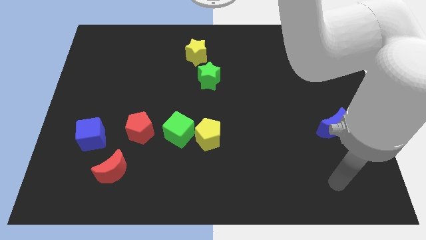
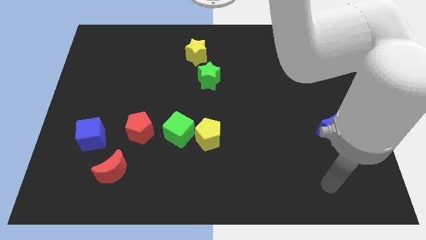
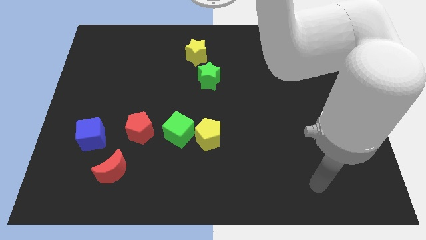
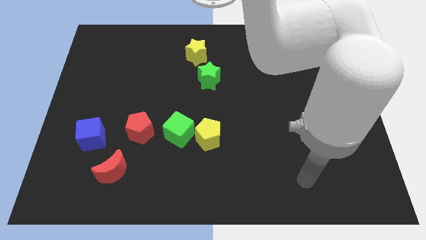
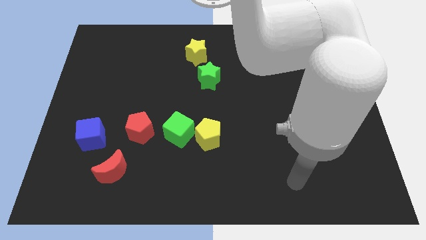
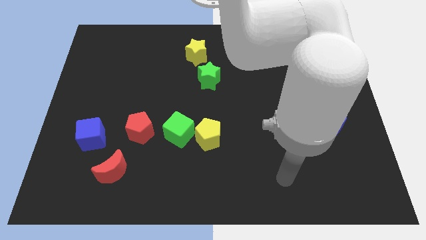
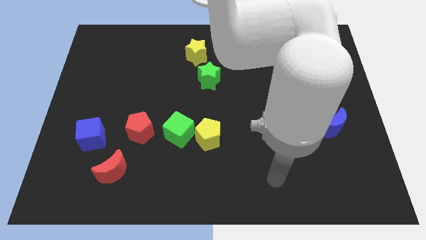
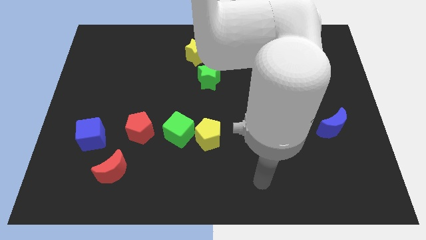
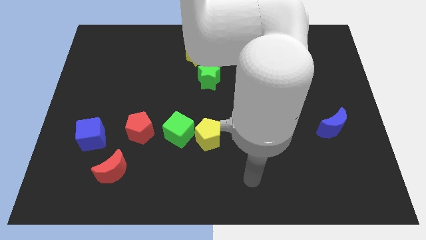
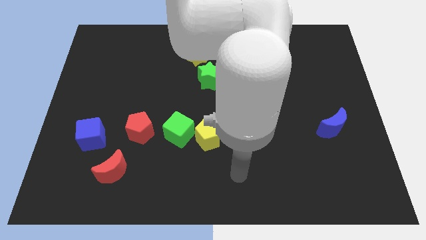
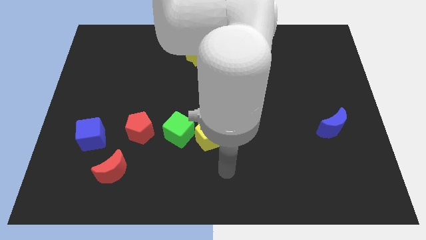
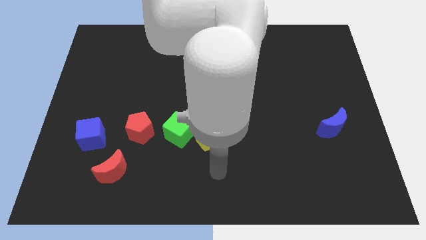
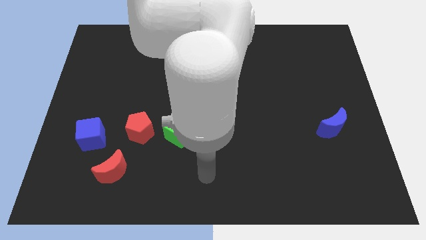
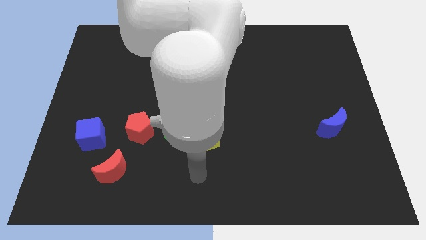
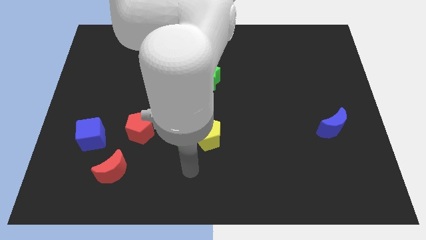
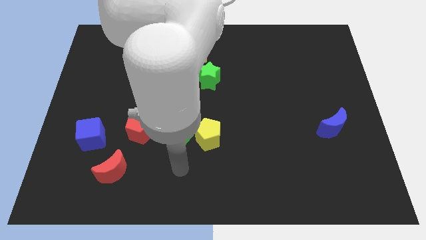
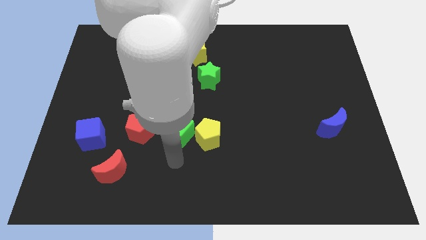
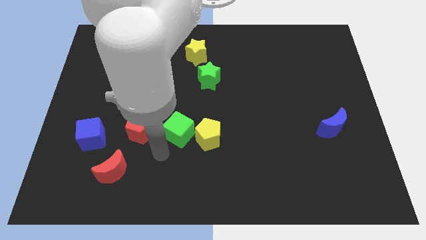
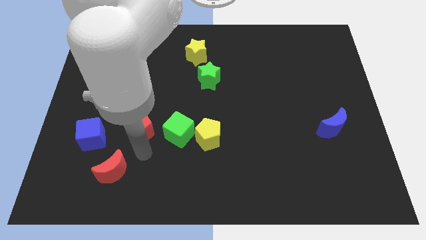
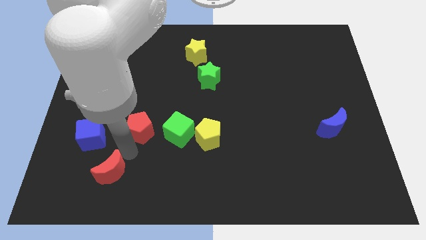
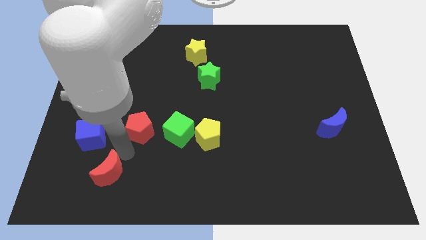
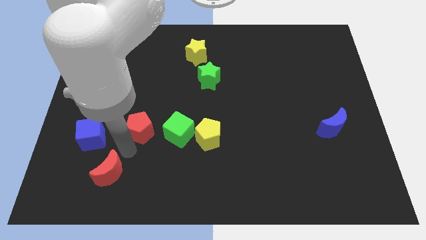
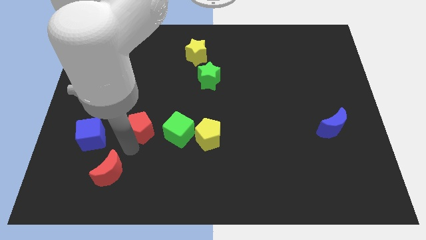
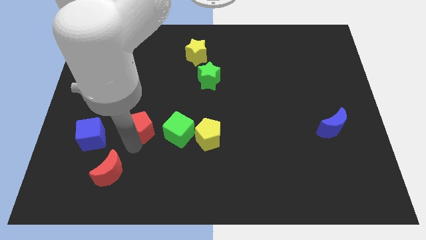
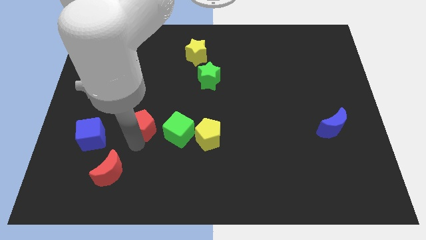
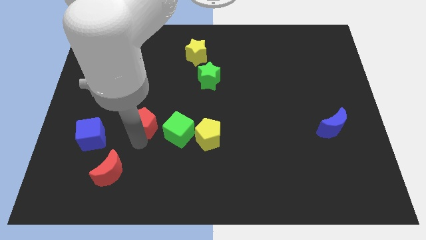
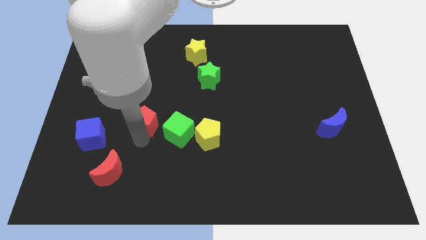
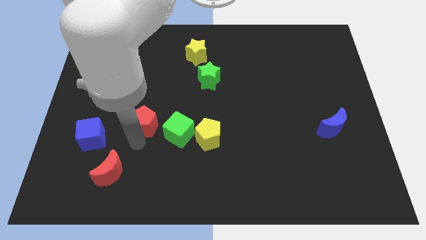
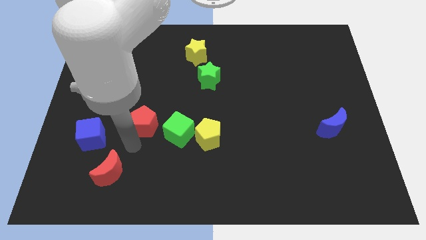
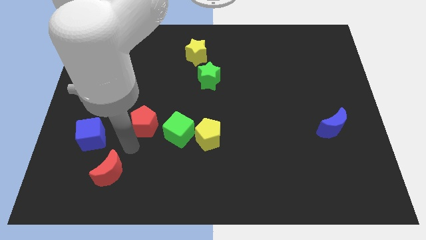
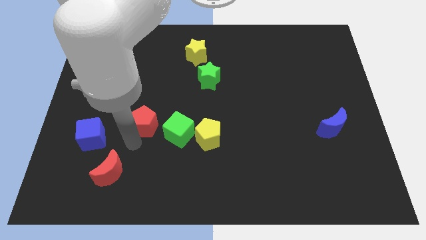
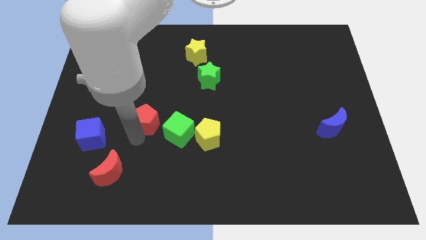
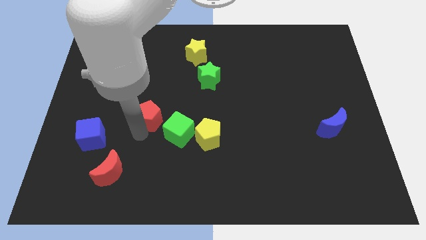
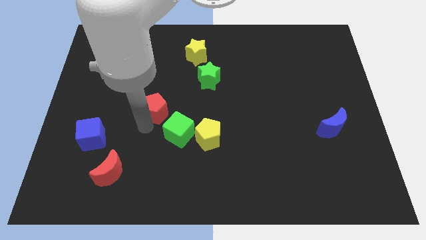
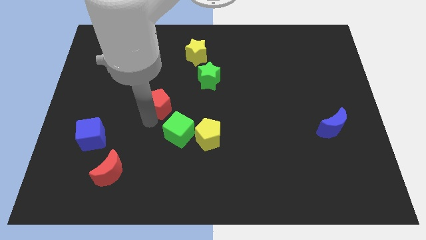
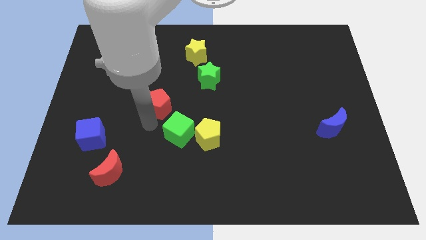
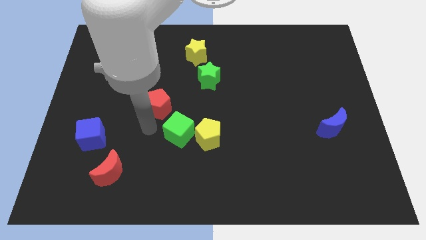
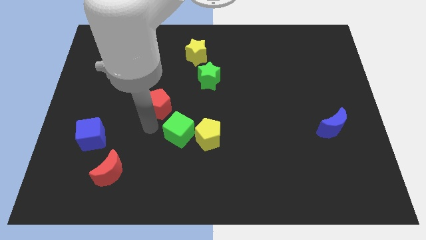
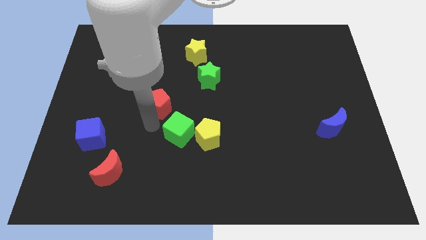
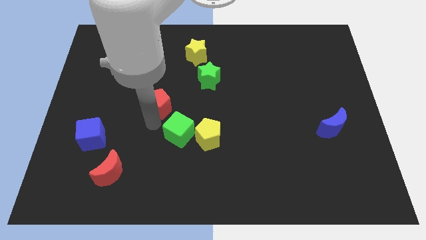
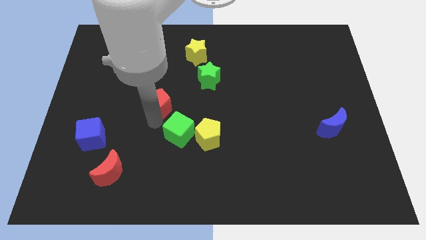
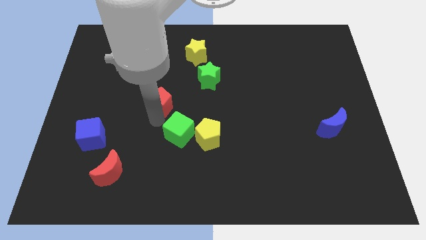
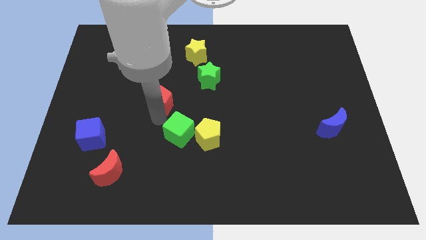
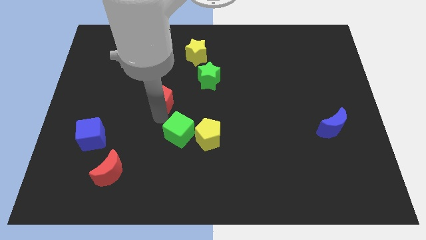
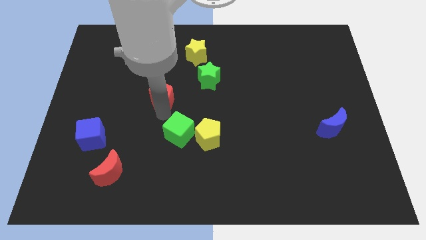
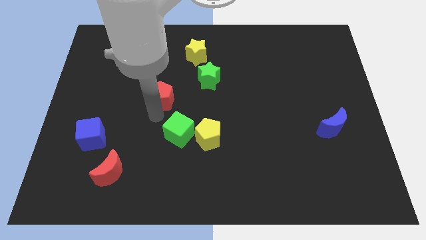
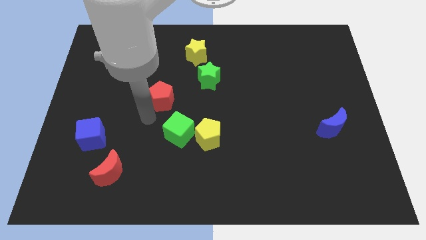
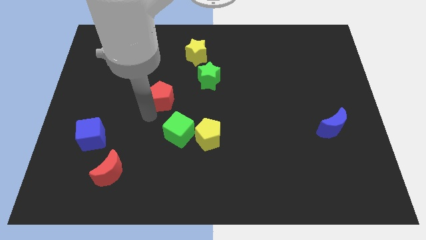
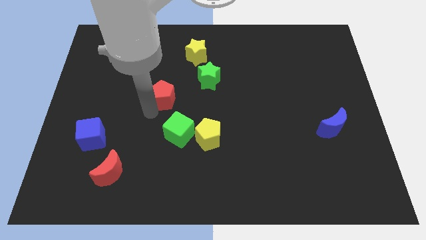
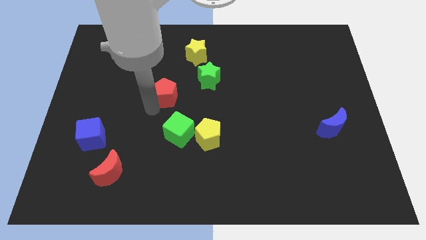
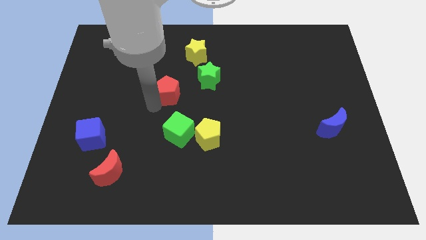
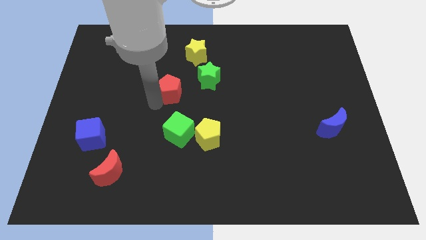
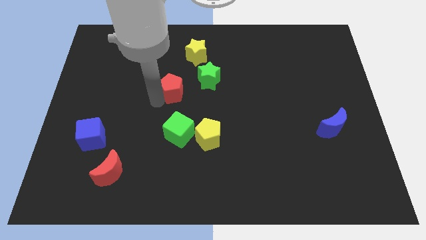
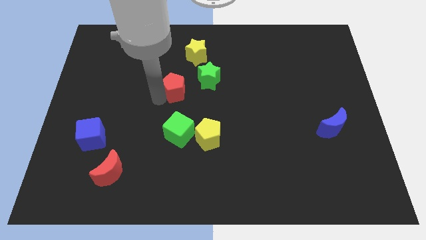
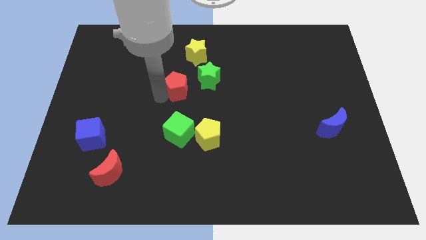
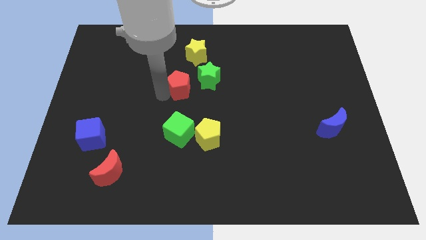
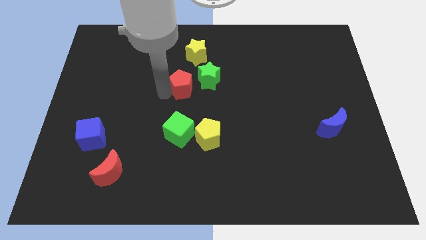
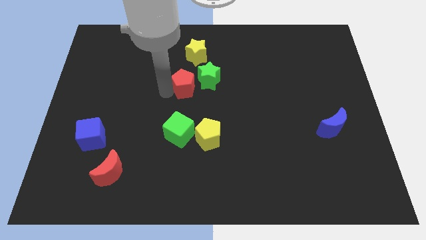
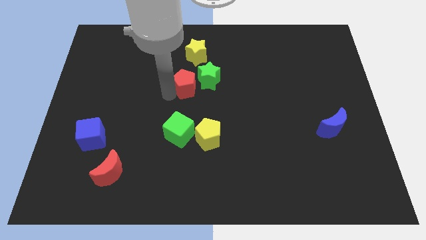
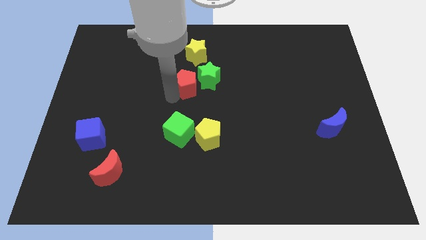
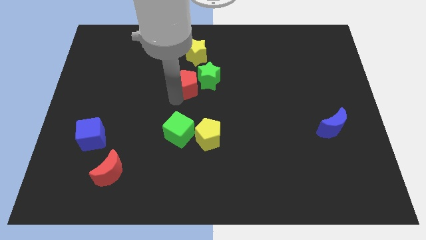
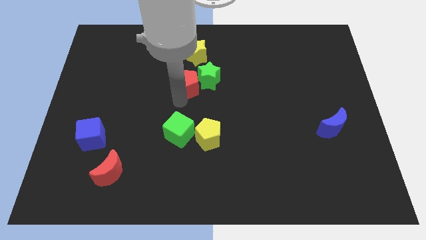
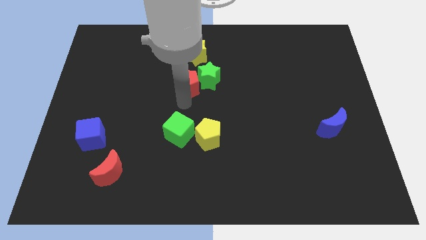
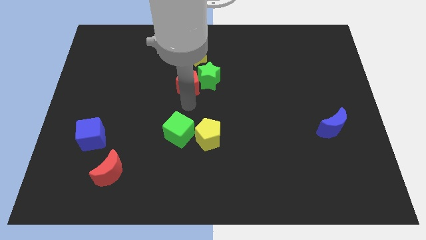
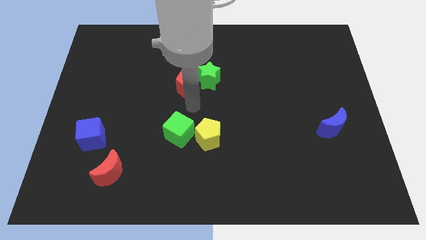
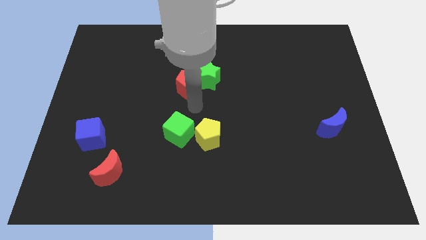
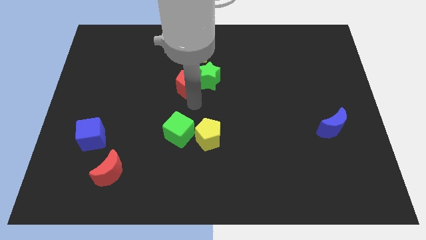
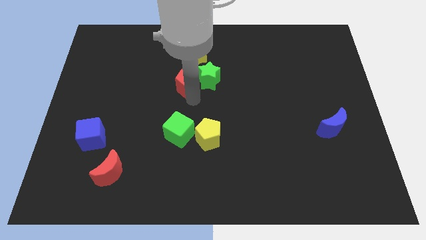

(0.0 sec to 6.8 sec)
push the red pentagon to the top left of the green star

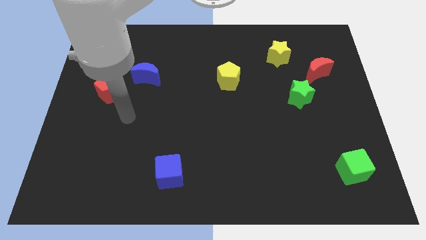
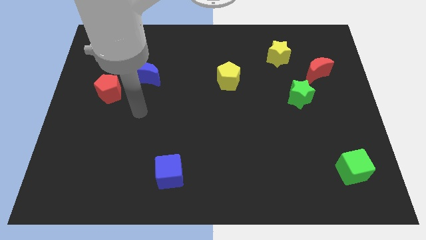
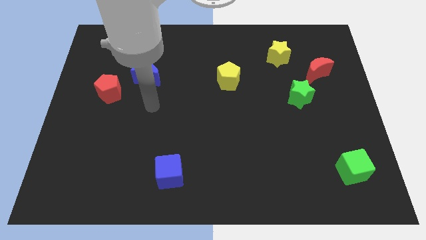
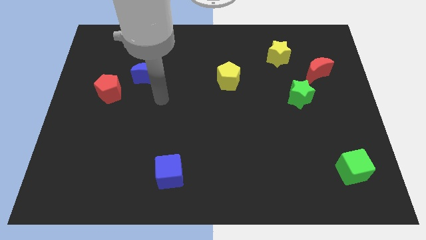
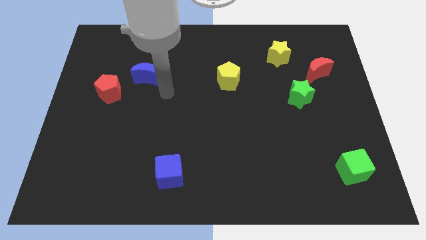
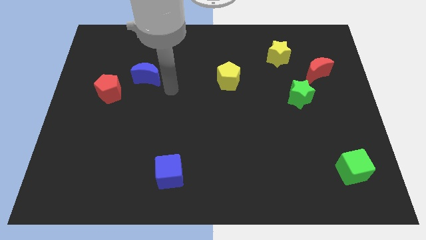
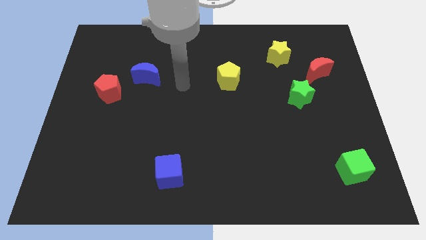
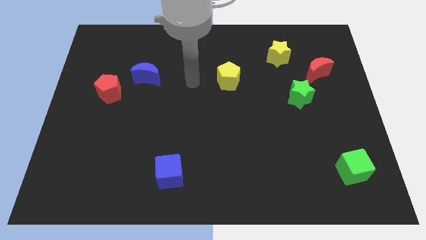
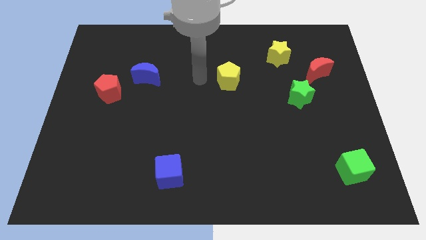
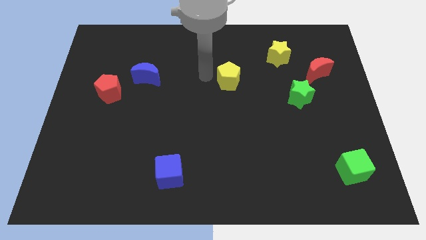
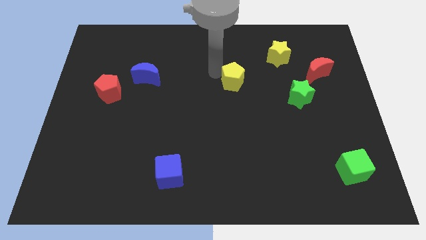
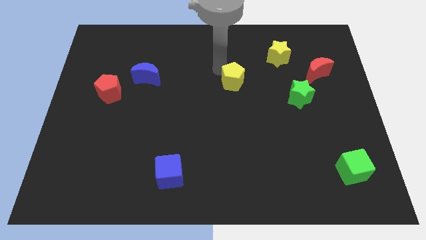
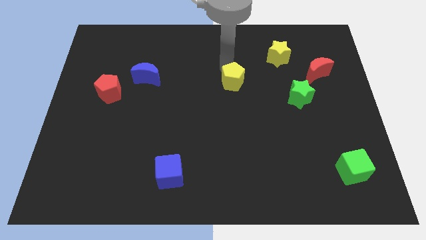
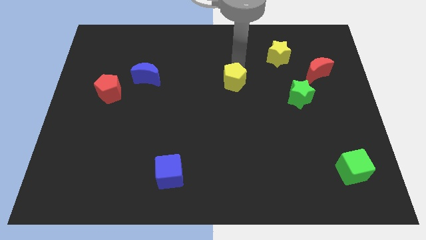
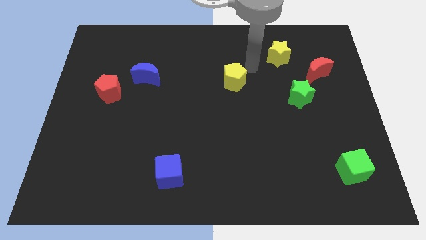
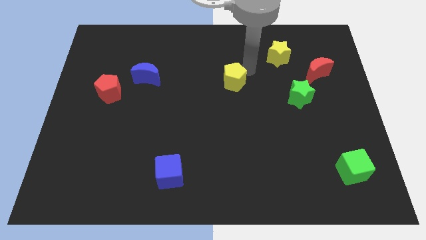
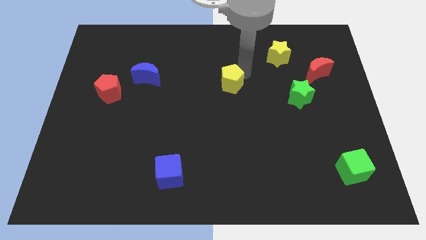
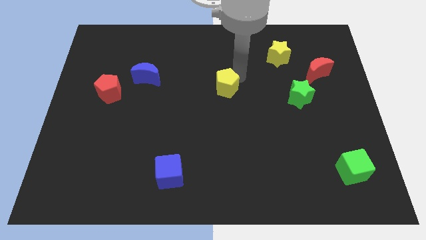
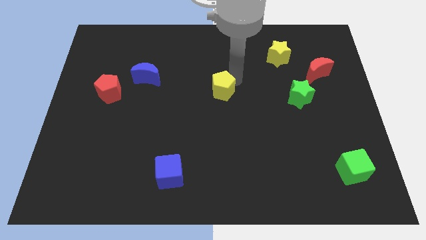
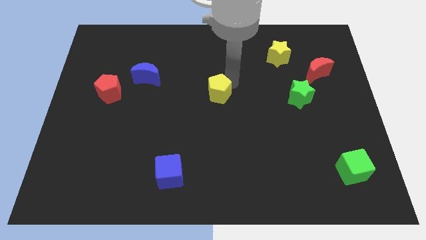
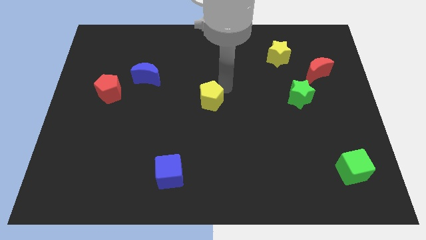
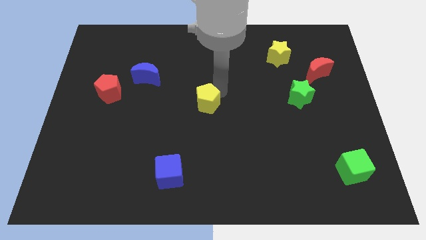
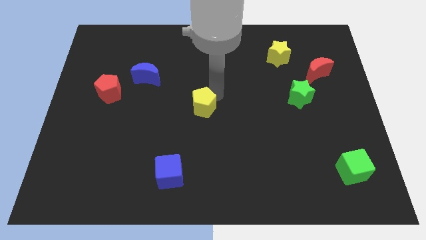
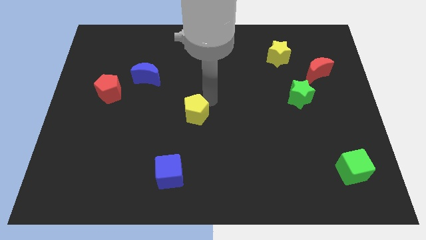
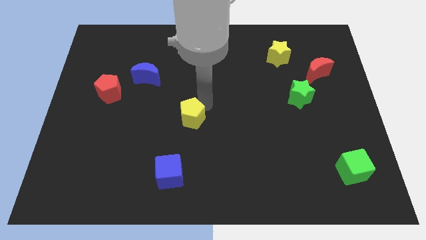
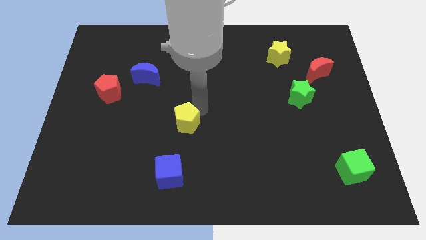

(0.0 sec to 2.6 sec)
put the yellow pentagon to the top side of the blue cube
